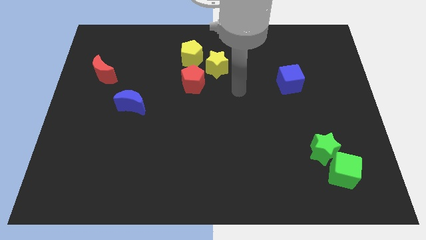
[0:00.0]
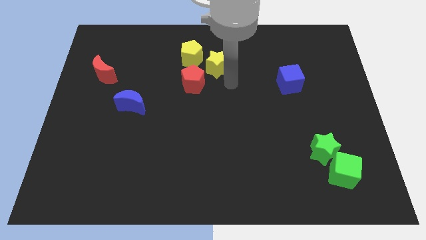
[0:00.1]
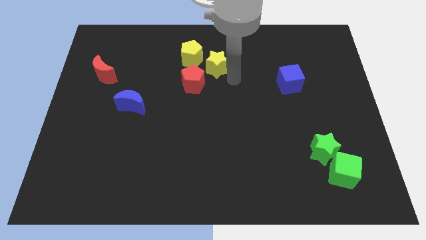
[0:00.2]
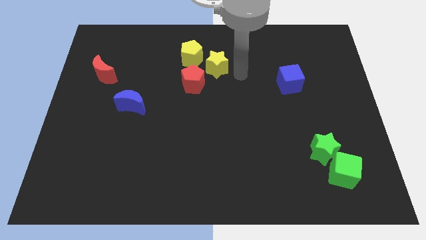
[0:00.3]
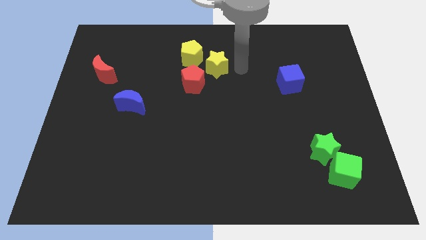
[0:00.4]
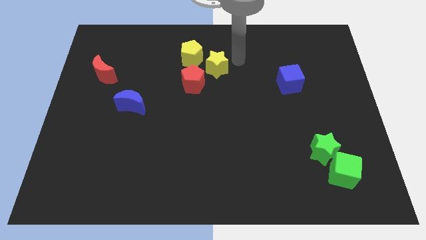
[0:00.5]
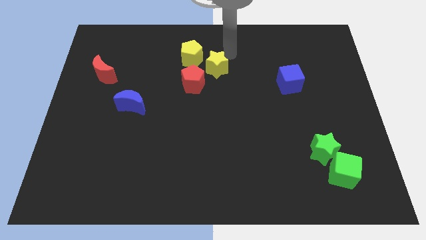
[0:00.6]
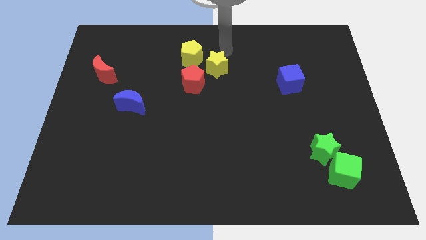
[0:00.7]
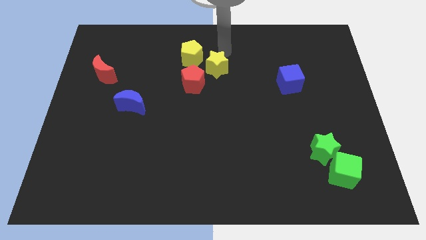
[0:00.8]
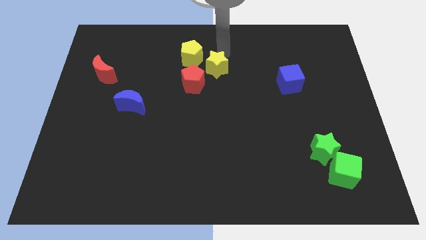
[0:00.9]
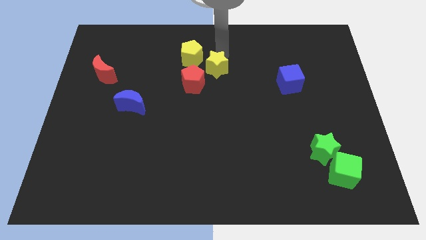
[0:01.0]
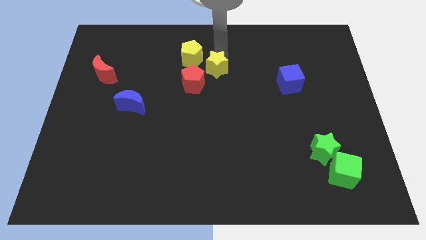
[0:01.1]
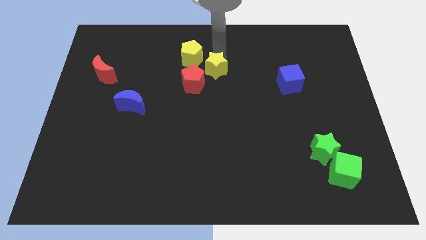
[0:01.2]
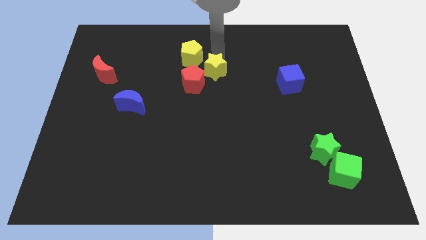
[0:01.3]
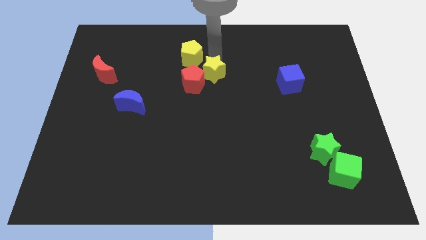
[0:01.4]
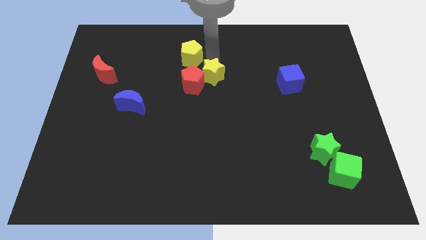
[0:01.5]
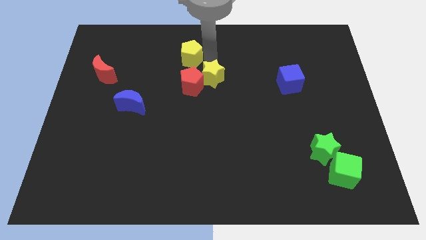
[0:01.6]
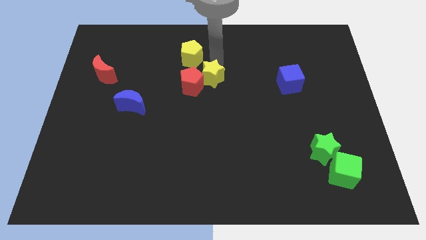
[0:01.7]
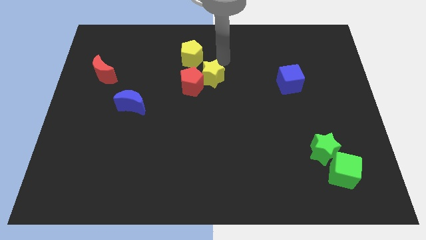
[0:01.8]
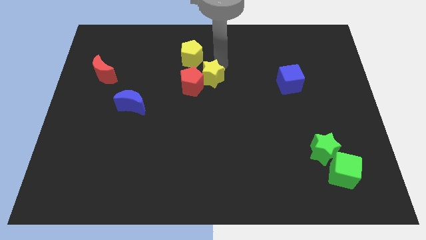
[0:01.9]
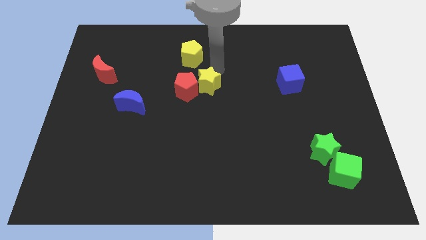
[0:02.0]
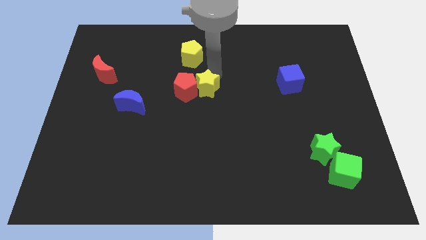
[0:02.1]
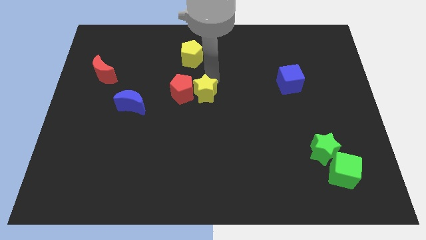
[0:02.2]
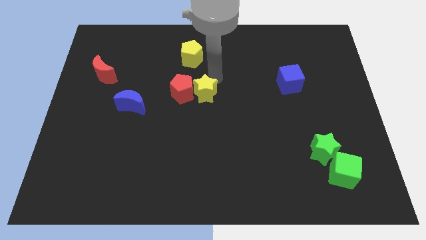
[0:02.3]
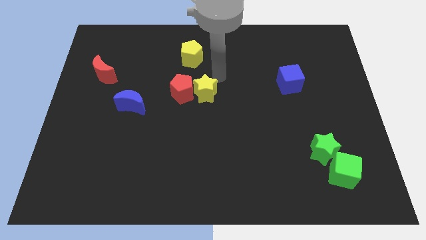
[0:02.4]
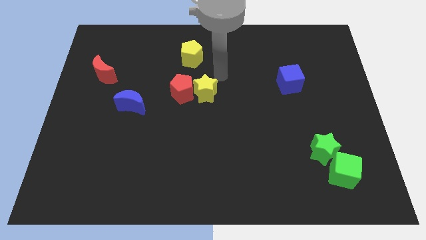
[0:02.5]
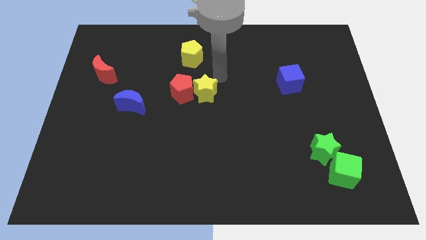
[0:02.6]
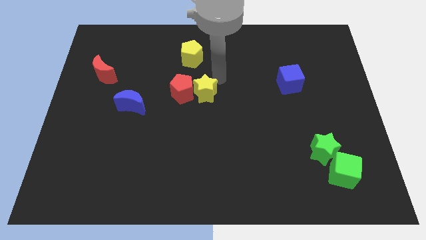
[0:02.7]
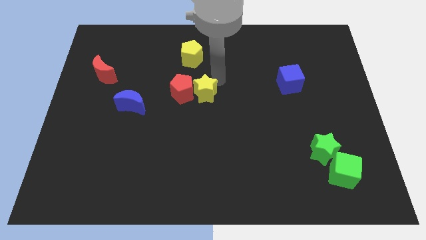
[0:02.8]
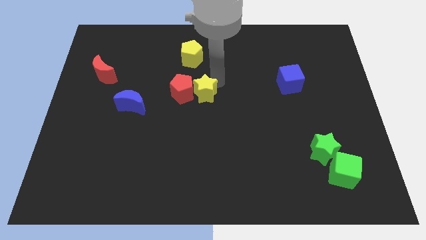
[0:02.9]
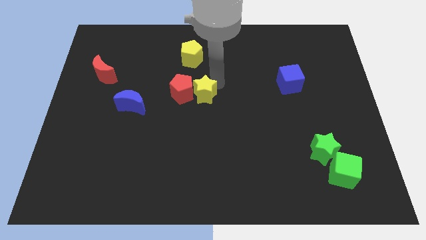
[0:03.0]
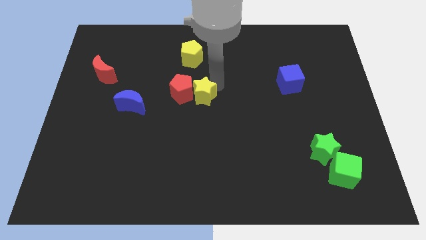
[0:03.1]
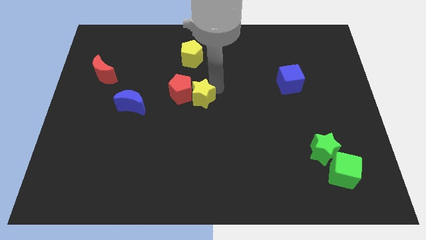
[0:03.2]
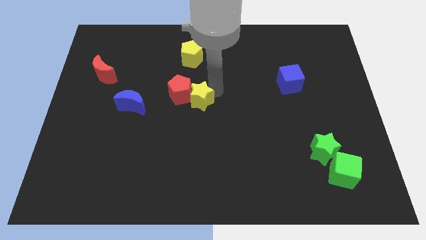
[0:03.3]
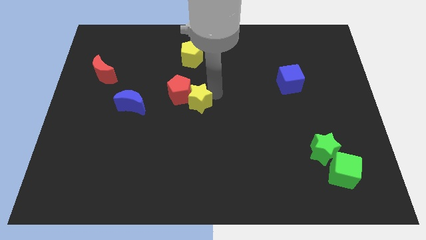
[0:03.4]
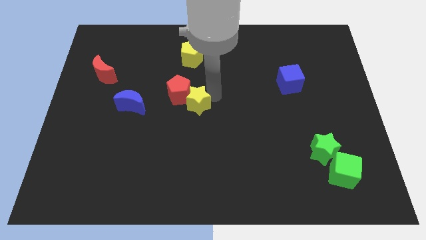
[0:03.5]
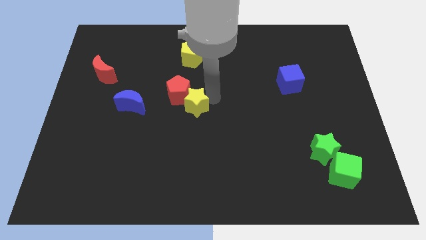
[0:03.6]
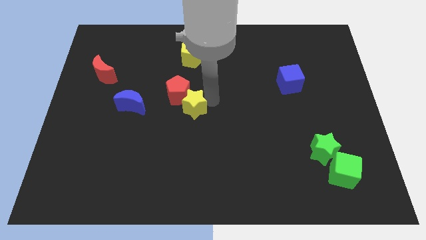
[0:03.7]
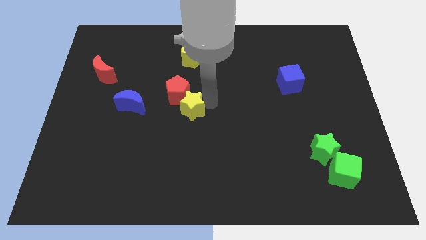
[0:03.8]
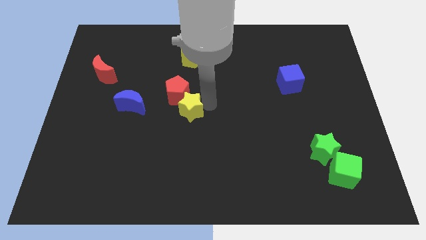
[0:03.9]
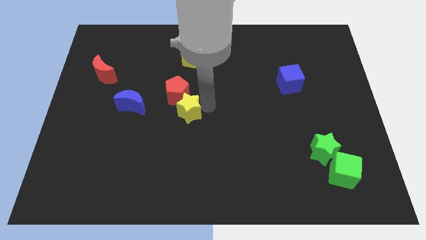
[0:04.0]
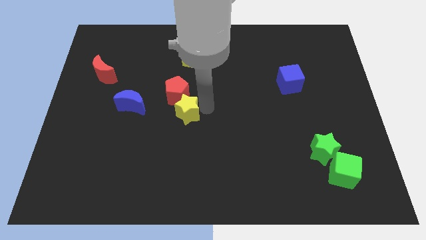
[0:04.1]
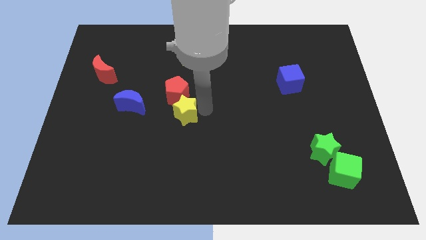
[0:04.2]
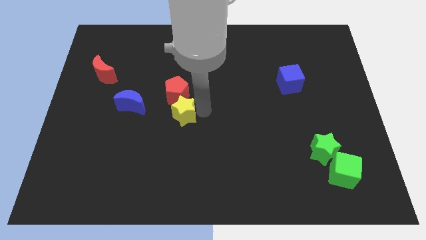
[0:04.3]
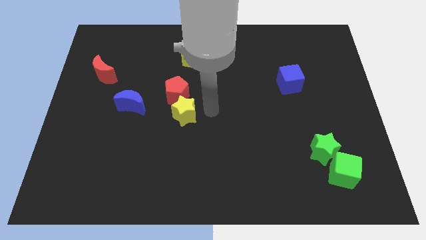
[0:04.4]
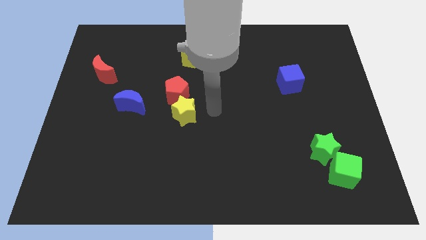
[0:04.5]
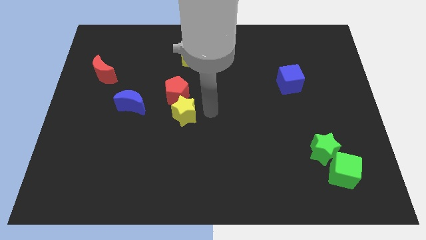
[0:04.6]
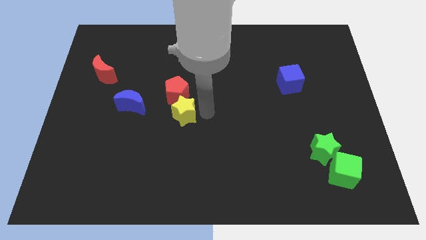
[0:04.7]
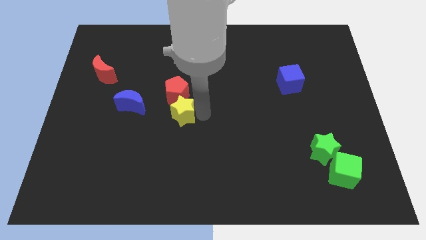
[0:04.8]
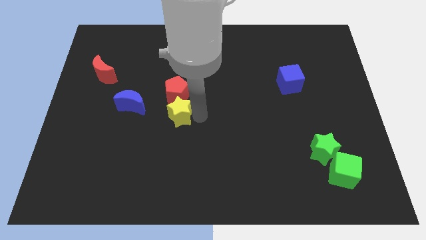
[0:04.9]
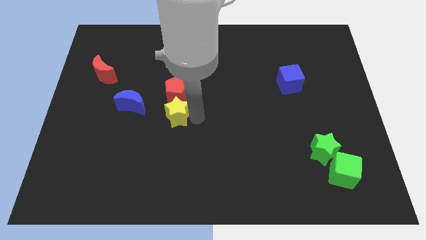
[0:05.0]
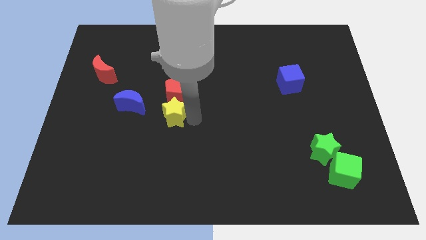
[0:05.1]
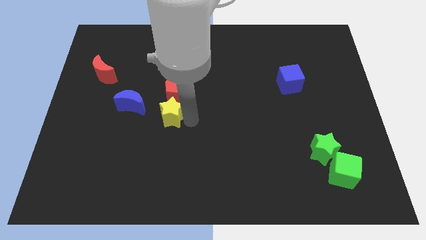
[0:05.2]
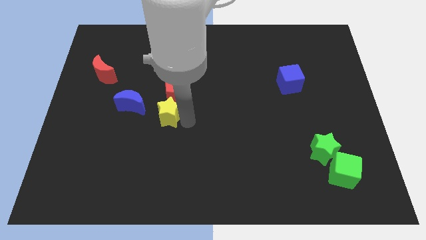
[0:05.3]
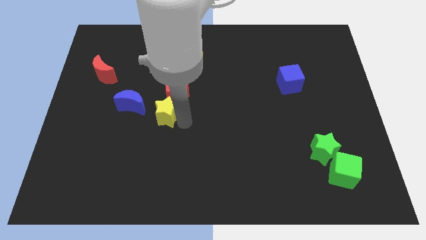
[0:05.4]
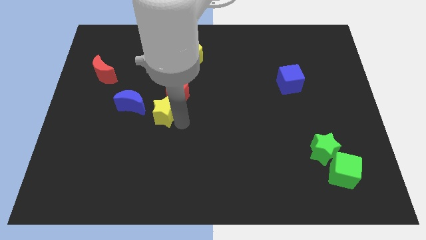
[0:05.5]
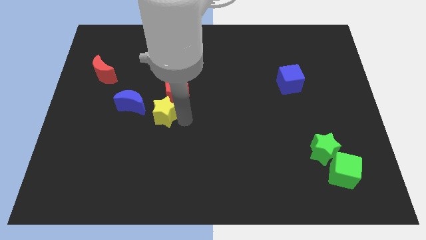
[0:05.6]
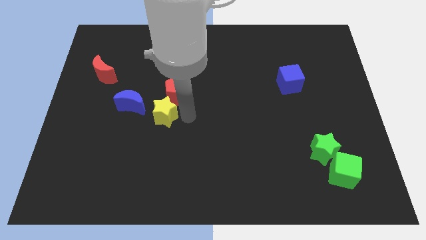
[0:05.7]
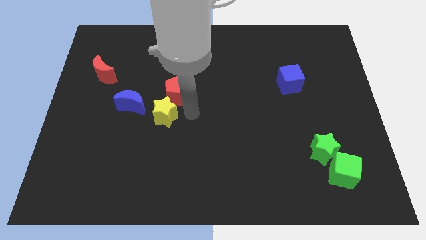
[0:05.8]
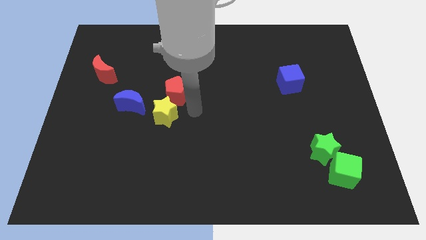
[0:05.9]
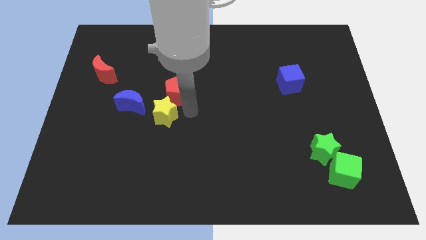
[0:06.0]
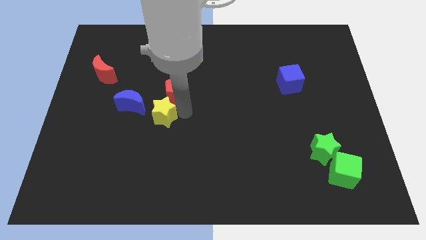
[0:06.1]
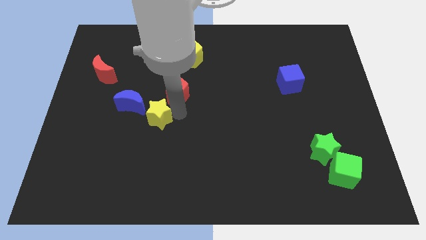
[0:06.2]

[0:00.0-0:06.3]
push the yellow star downwards and to the left diagonally

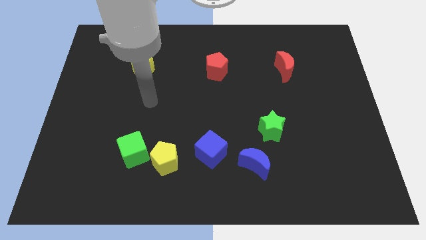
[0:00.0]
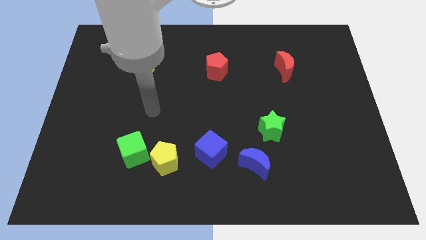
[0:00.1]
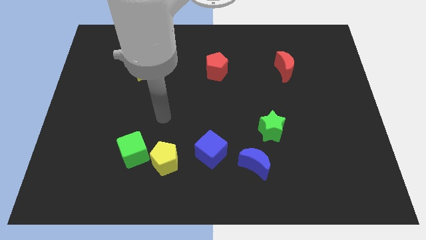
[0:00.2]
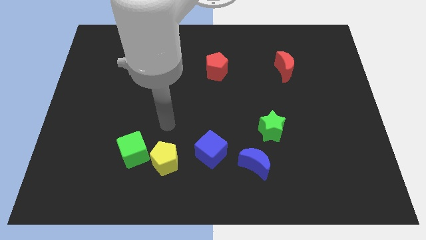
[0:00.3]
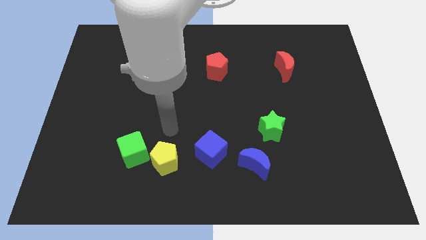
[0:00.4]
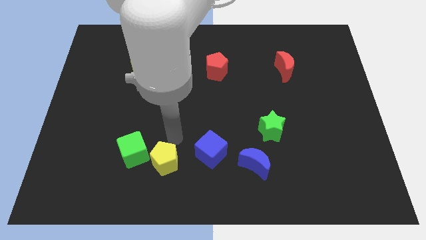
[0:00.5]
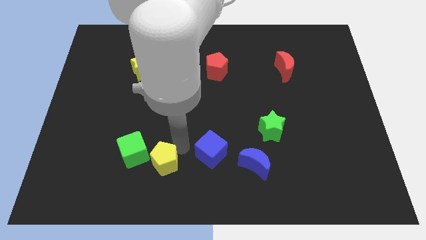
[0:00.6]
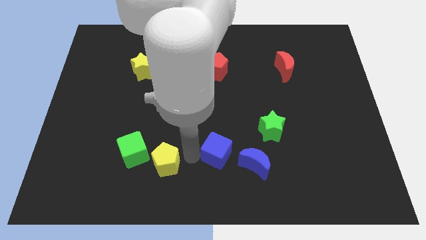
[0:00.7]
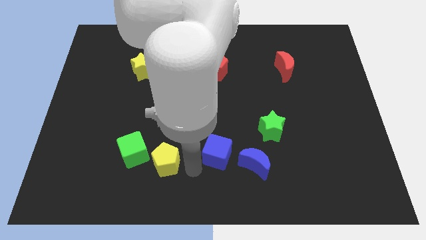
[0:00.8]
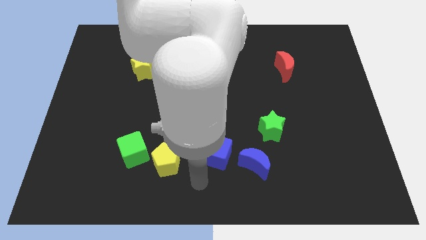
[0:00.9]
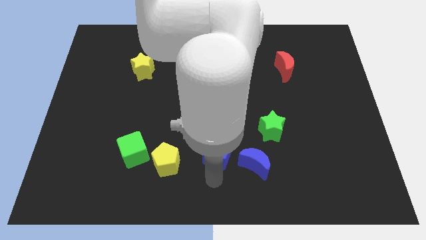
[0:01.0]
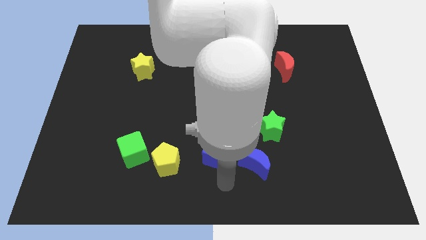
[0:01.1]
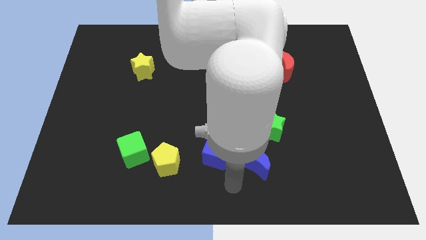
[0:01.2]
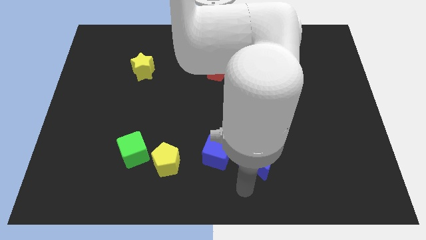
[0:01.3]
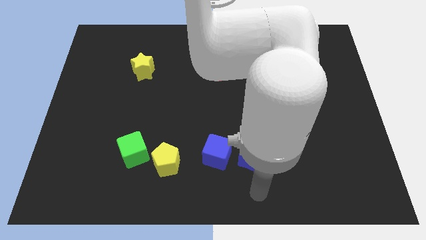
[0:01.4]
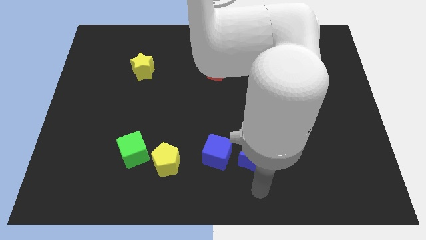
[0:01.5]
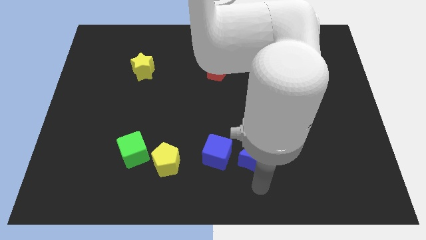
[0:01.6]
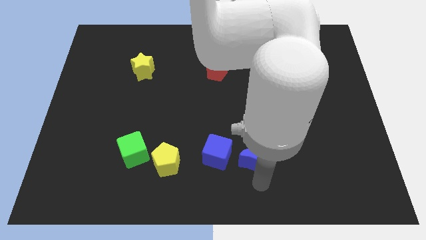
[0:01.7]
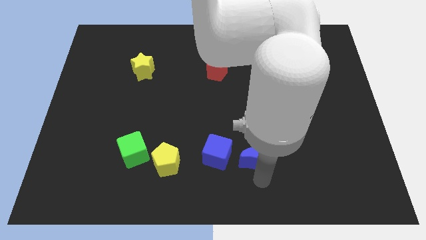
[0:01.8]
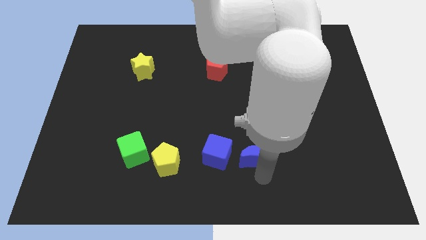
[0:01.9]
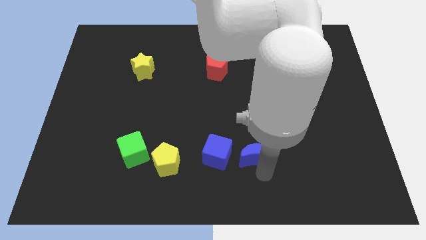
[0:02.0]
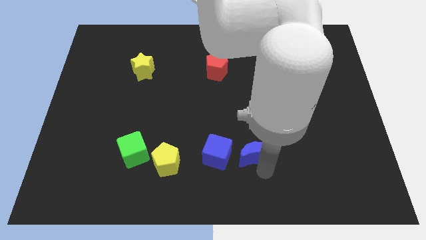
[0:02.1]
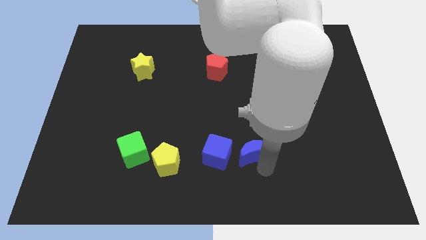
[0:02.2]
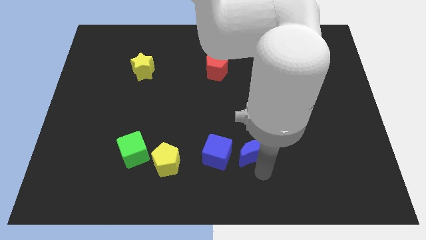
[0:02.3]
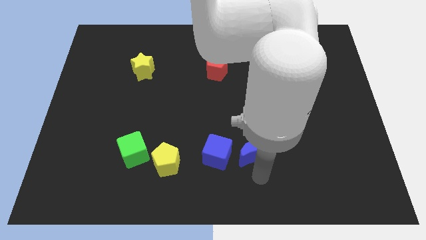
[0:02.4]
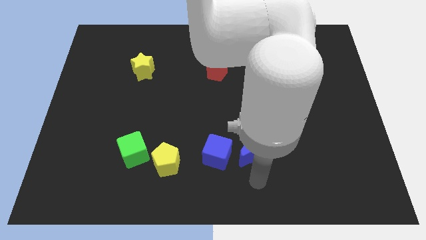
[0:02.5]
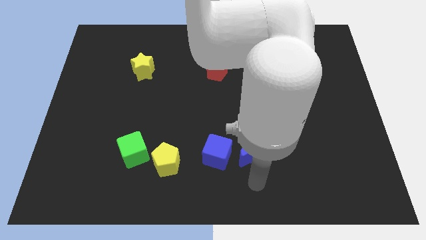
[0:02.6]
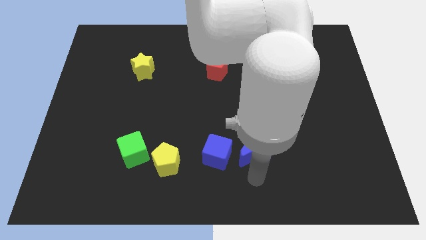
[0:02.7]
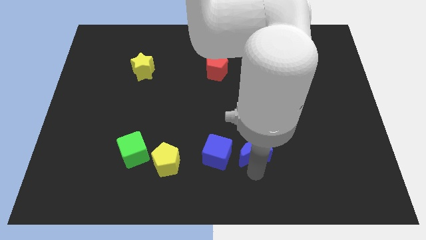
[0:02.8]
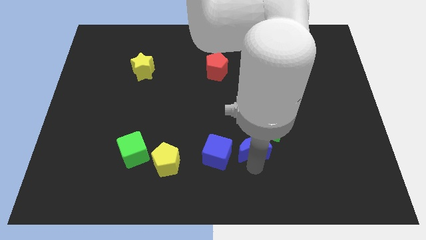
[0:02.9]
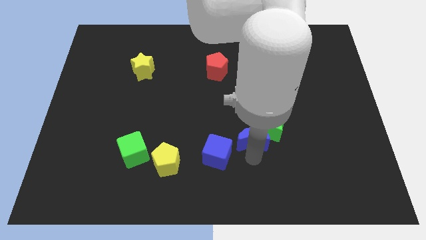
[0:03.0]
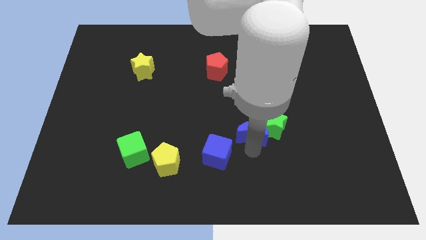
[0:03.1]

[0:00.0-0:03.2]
slightly move the blue moon upwards
